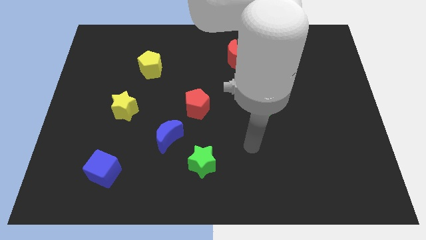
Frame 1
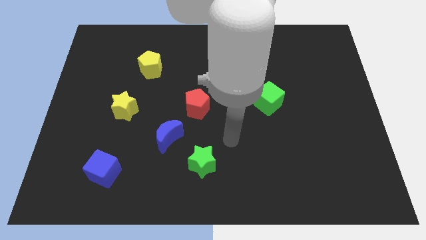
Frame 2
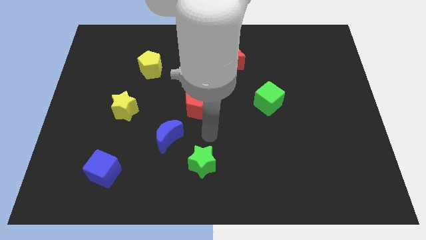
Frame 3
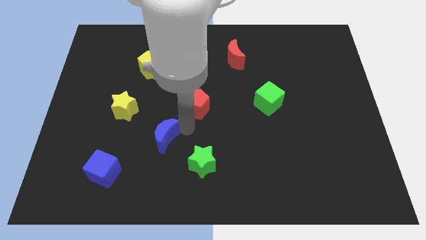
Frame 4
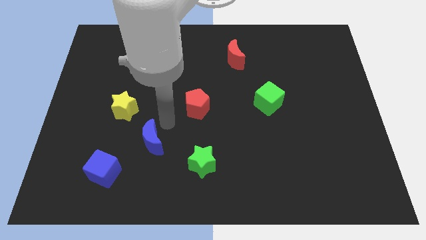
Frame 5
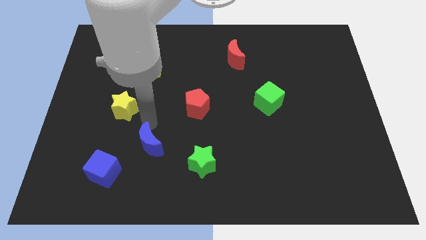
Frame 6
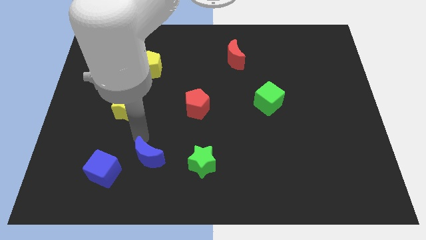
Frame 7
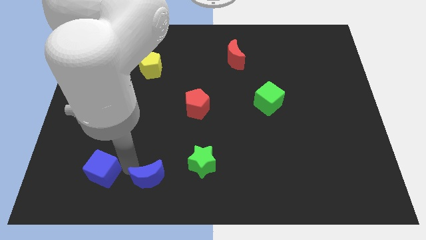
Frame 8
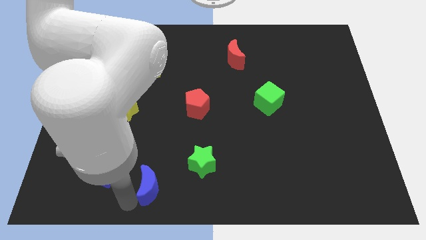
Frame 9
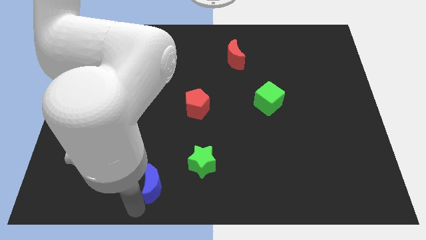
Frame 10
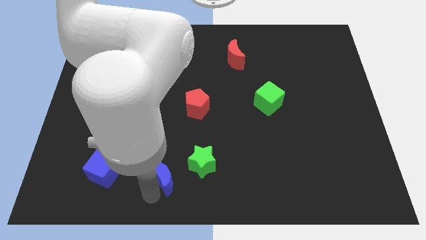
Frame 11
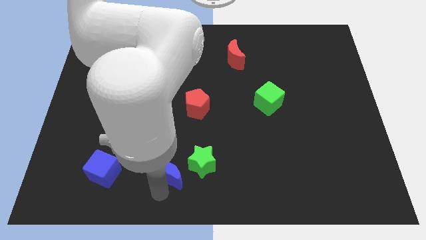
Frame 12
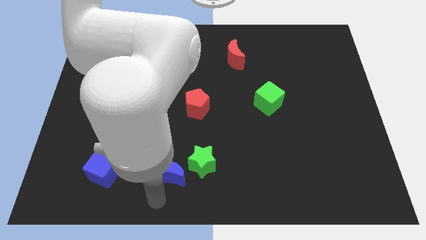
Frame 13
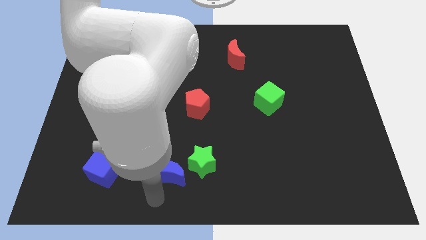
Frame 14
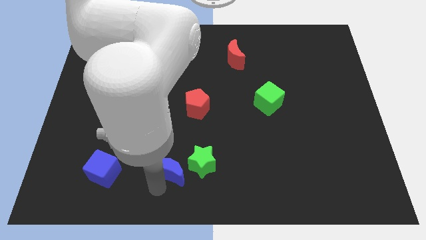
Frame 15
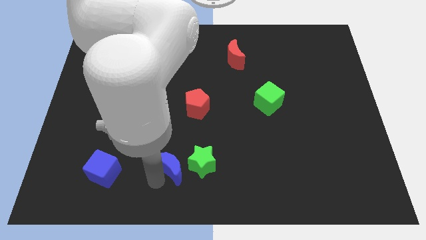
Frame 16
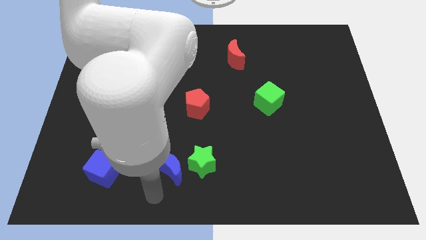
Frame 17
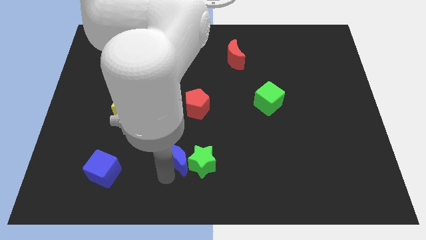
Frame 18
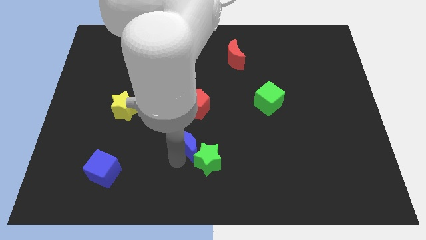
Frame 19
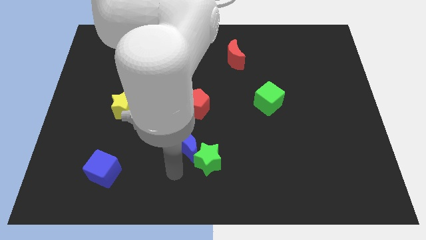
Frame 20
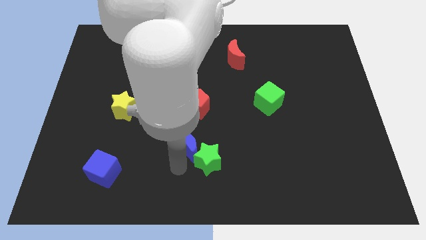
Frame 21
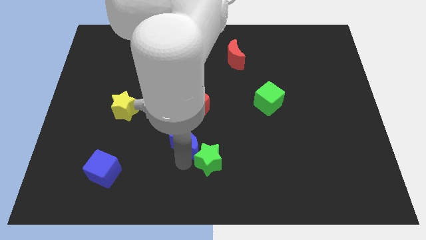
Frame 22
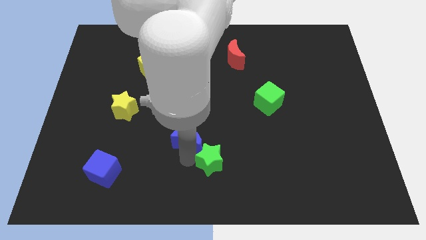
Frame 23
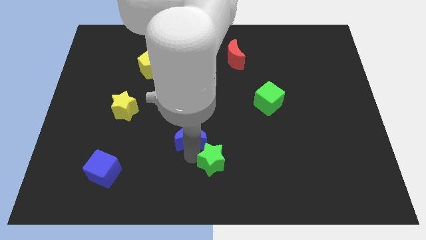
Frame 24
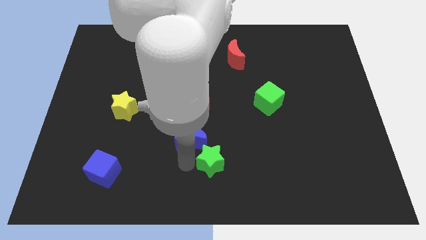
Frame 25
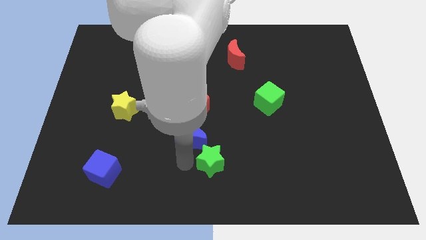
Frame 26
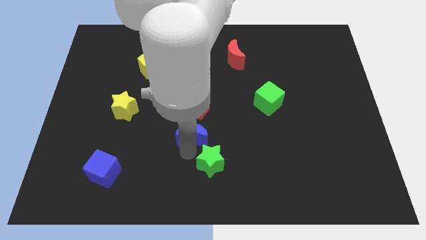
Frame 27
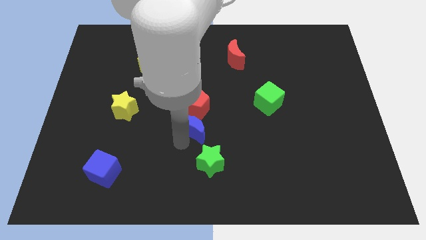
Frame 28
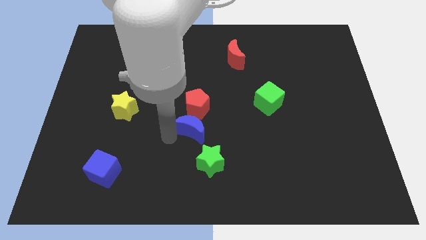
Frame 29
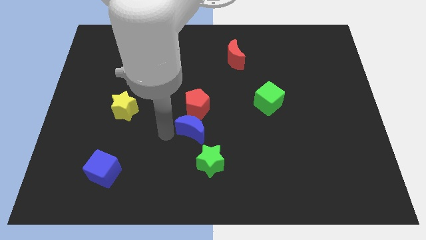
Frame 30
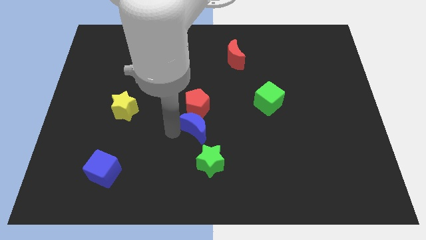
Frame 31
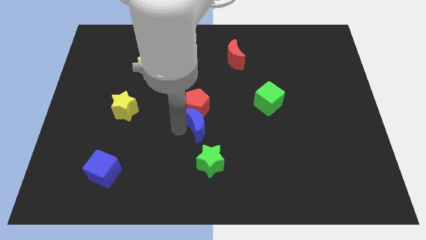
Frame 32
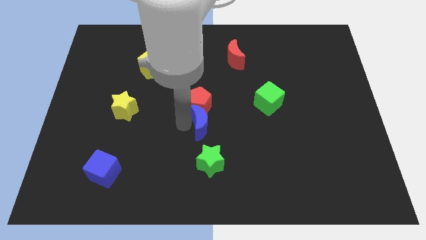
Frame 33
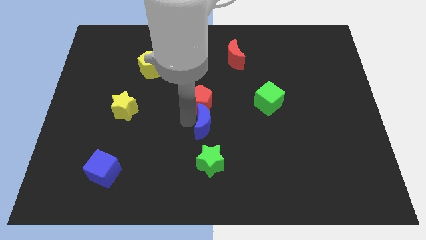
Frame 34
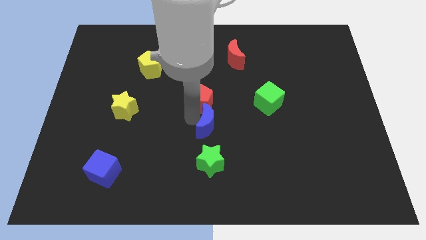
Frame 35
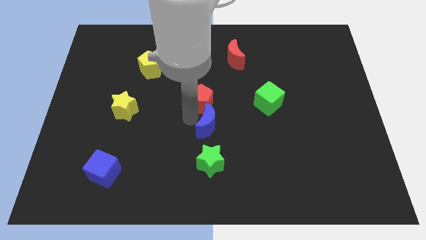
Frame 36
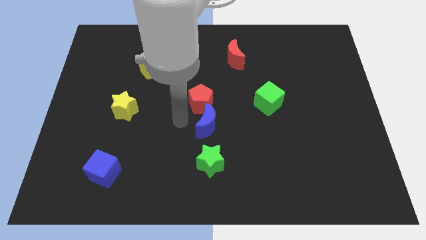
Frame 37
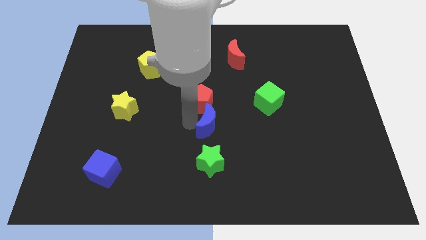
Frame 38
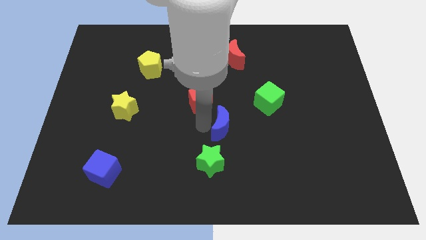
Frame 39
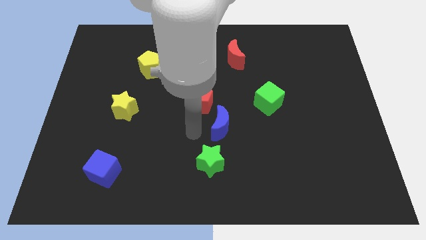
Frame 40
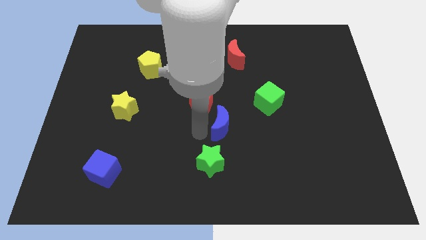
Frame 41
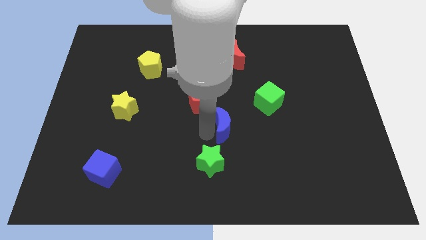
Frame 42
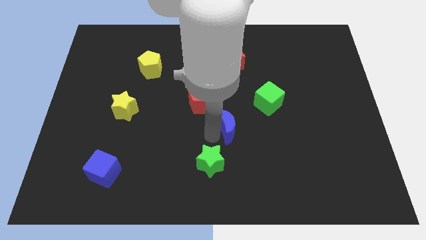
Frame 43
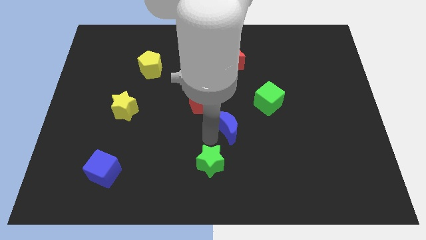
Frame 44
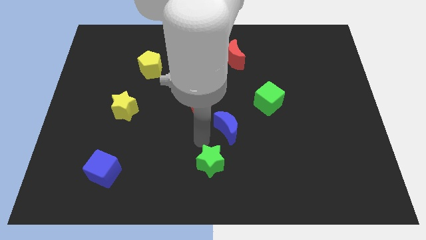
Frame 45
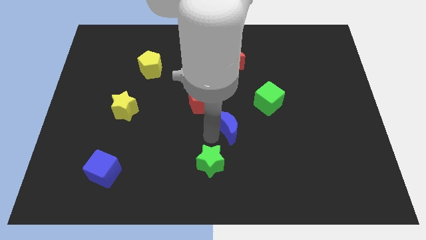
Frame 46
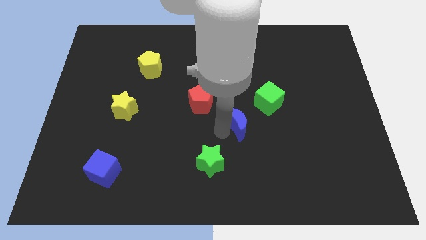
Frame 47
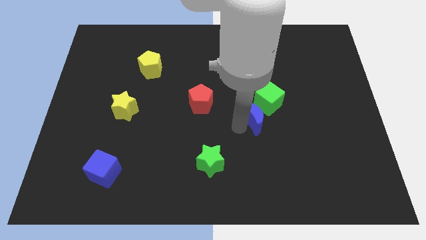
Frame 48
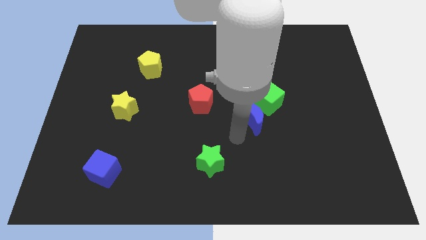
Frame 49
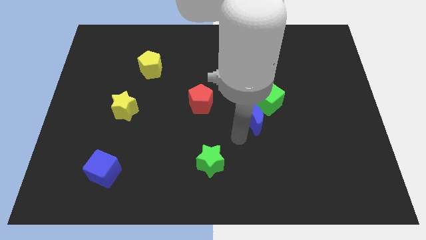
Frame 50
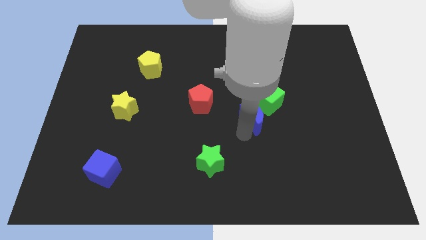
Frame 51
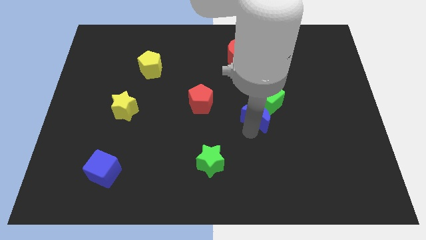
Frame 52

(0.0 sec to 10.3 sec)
put the blue moon to the green cube

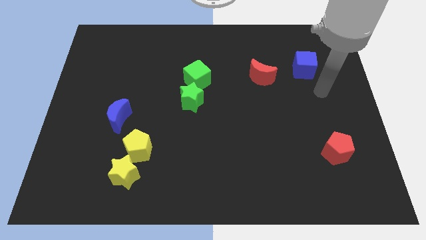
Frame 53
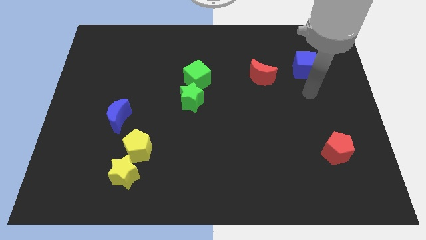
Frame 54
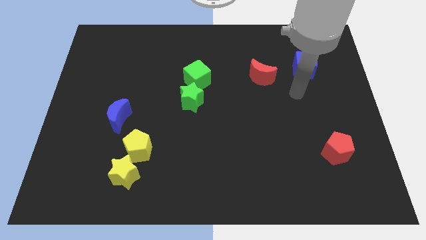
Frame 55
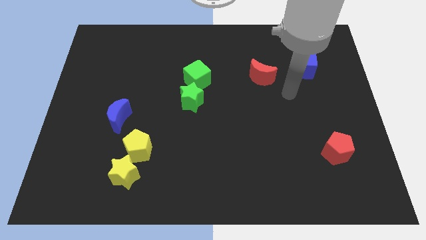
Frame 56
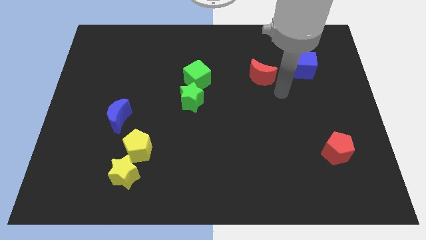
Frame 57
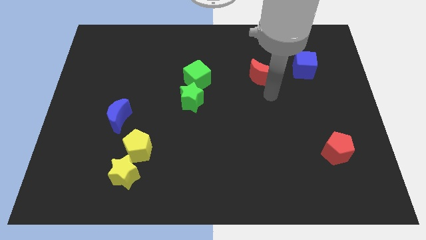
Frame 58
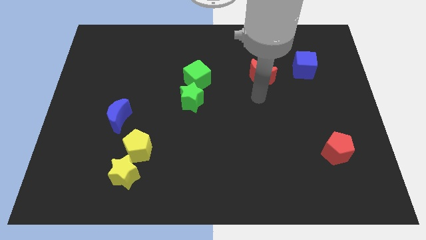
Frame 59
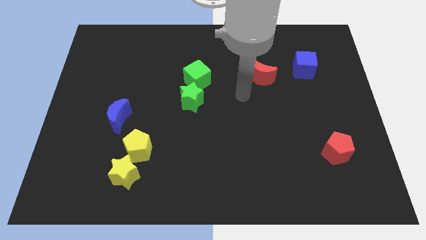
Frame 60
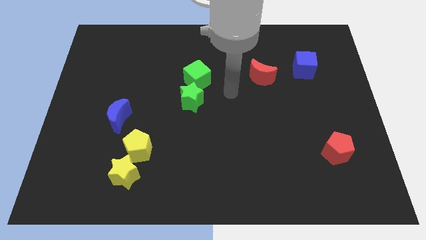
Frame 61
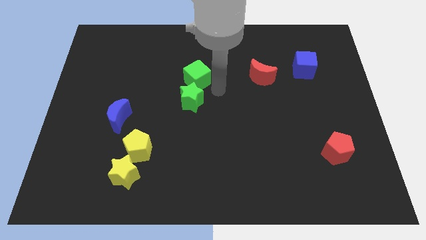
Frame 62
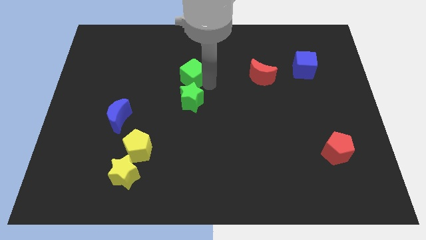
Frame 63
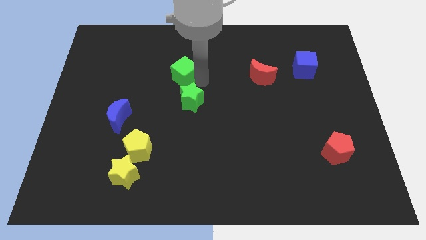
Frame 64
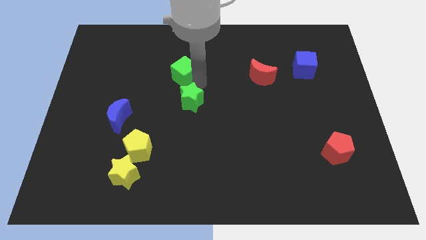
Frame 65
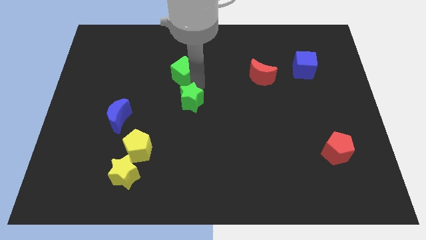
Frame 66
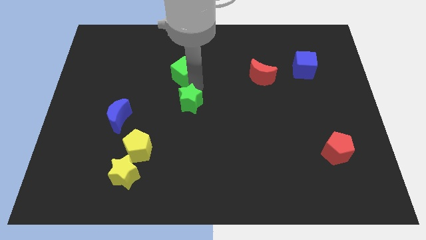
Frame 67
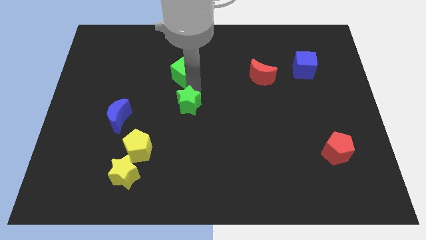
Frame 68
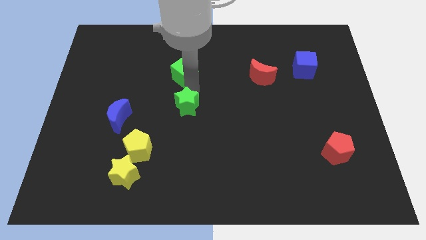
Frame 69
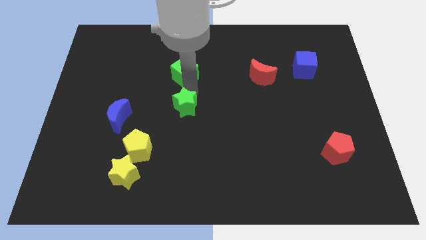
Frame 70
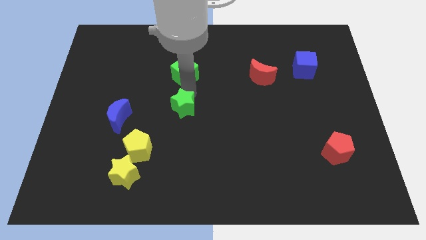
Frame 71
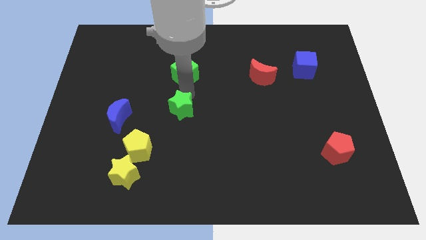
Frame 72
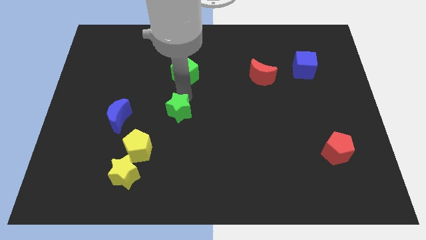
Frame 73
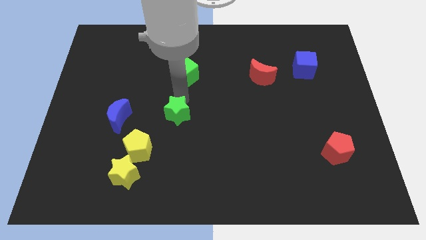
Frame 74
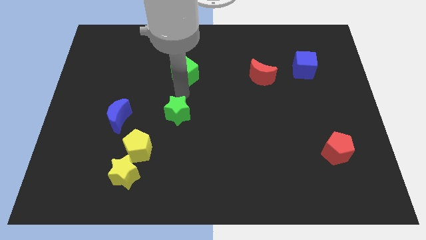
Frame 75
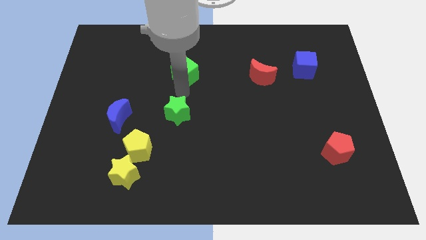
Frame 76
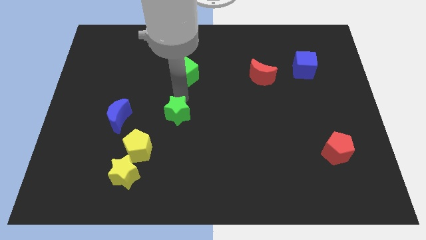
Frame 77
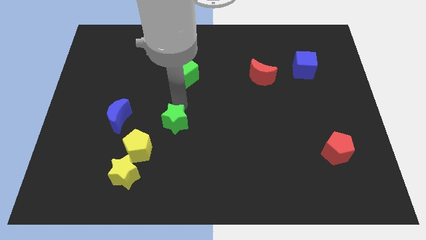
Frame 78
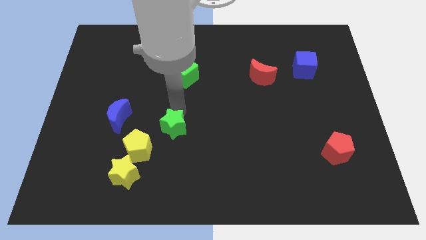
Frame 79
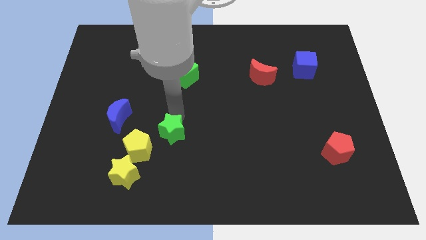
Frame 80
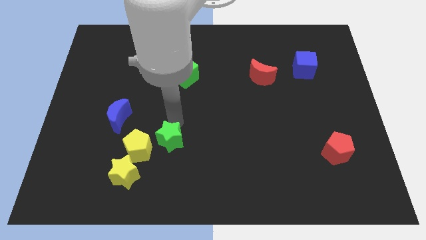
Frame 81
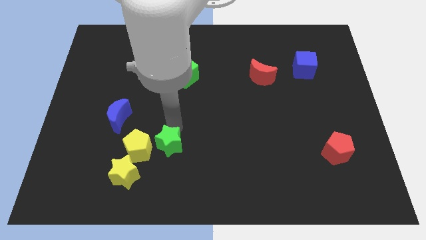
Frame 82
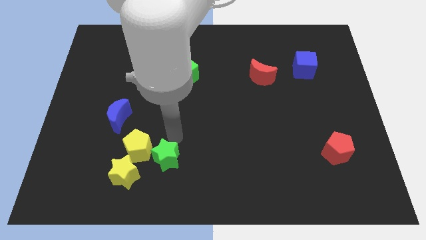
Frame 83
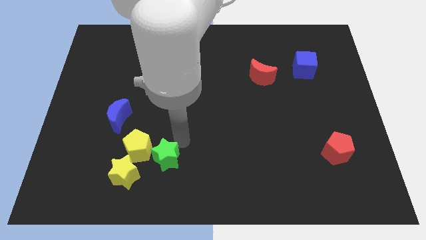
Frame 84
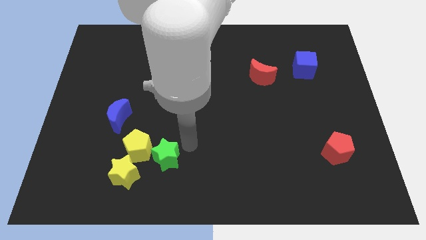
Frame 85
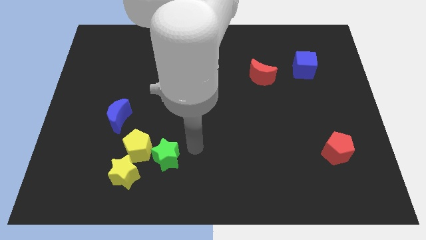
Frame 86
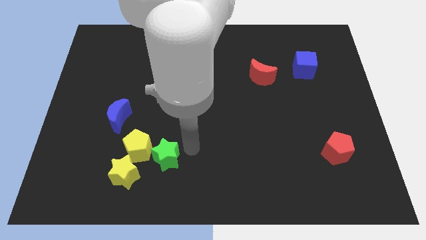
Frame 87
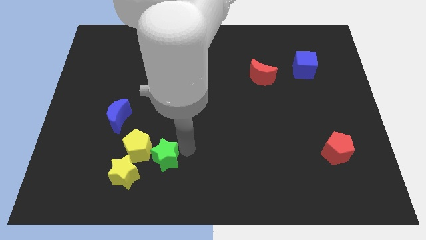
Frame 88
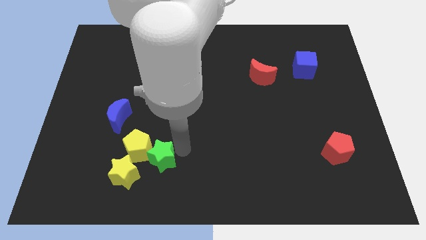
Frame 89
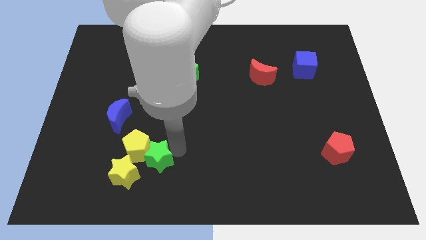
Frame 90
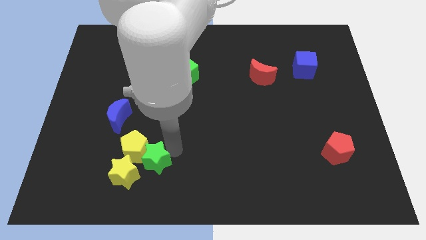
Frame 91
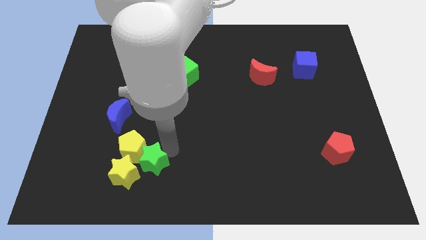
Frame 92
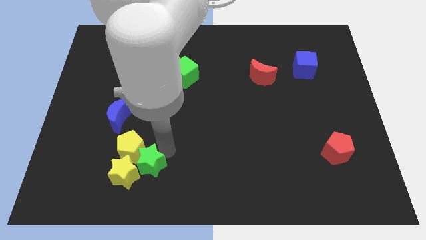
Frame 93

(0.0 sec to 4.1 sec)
push the green star close to the yellow star
